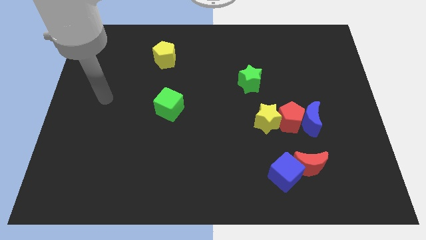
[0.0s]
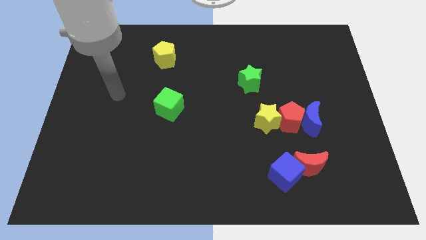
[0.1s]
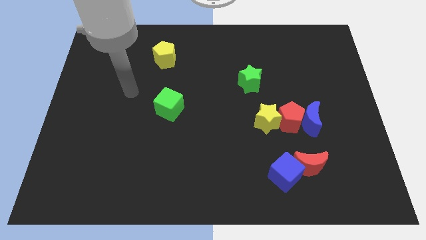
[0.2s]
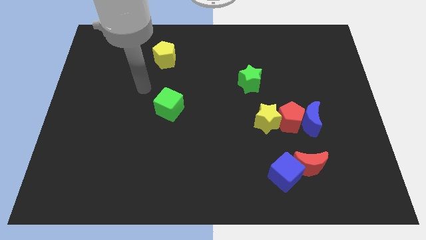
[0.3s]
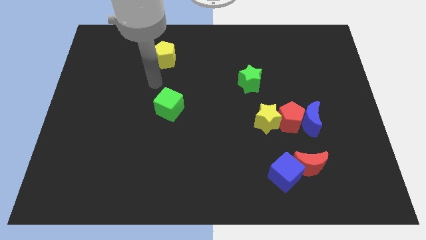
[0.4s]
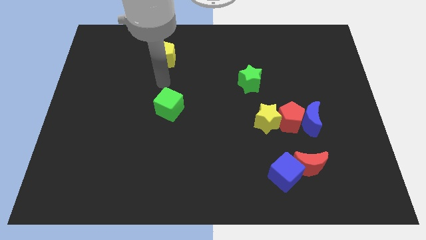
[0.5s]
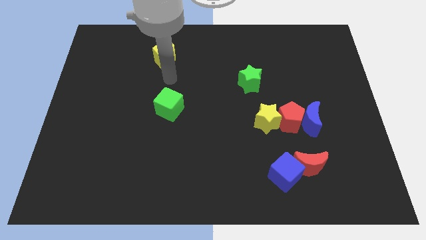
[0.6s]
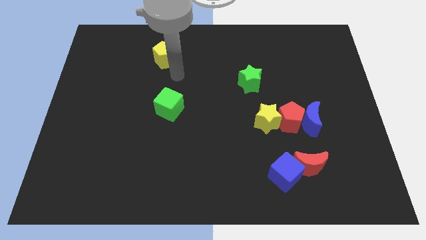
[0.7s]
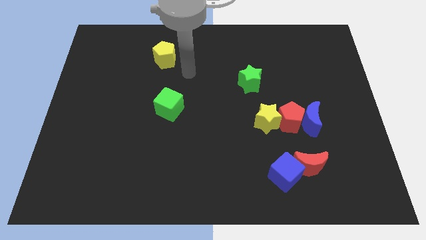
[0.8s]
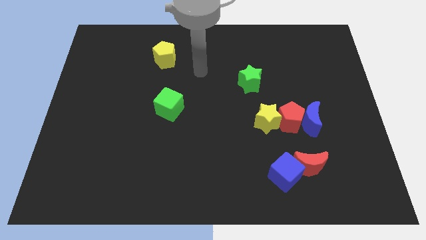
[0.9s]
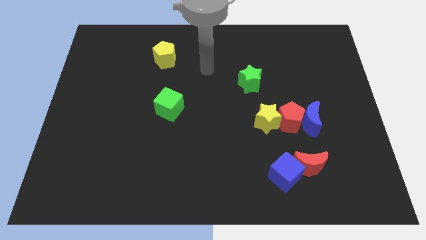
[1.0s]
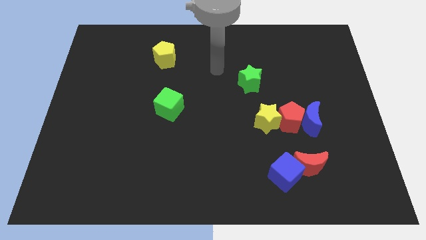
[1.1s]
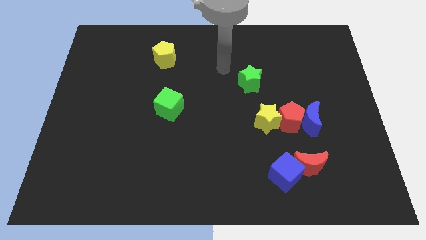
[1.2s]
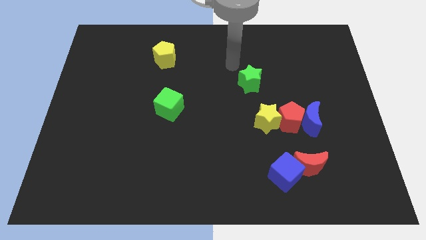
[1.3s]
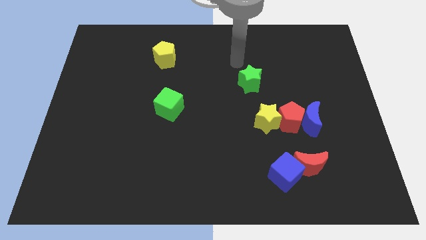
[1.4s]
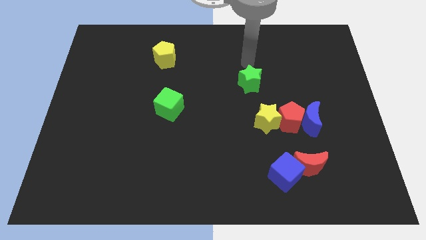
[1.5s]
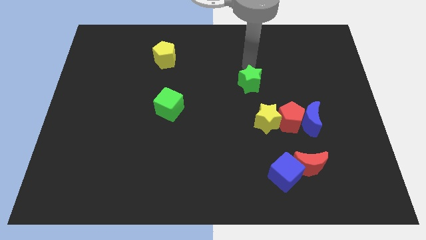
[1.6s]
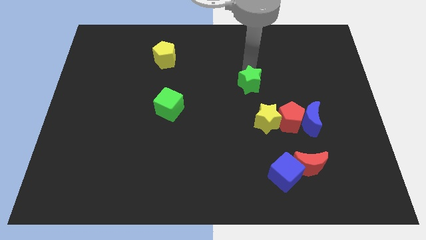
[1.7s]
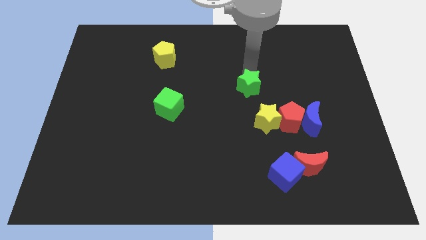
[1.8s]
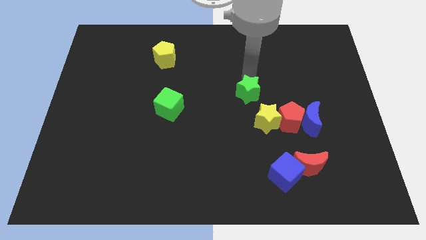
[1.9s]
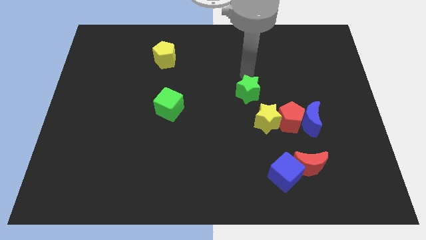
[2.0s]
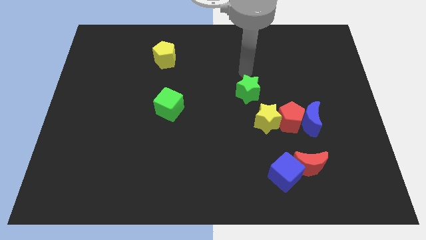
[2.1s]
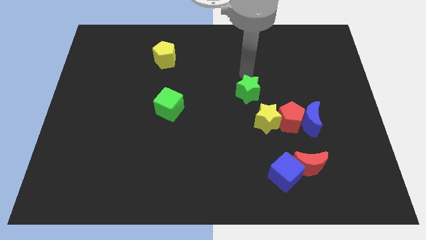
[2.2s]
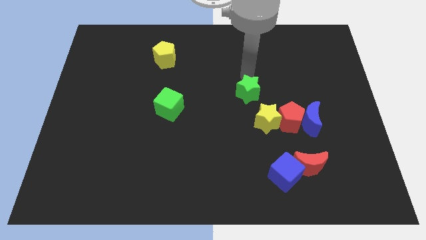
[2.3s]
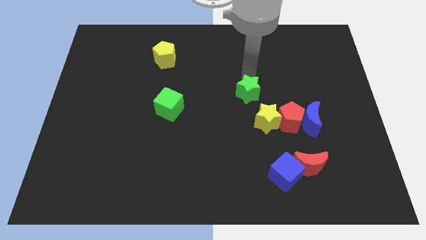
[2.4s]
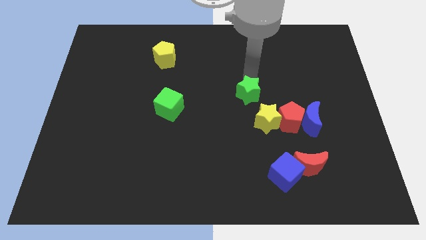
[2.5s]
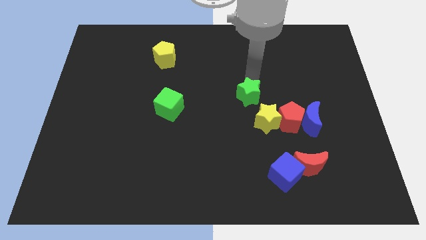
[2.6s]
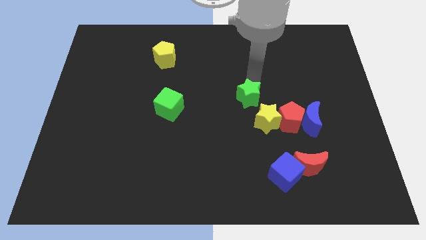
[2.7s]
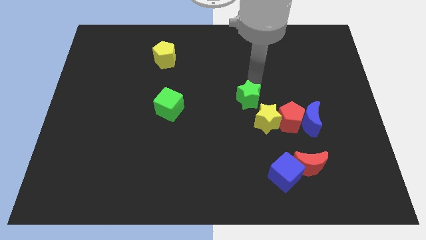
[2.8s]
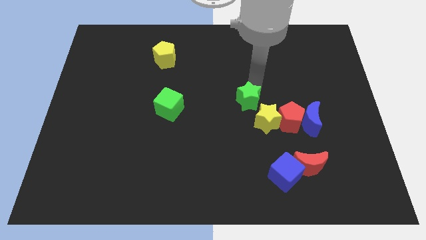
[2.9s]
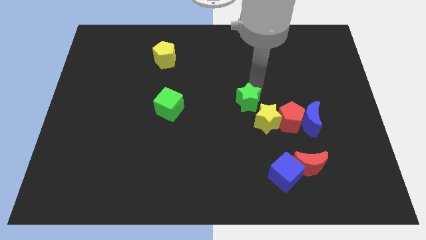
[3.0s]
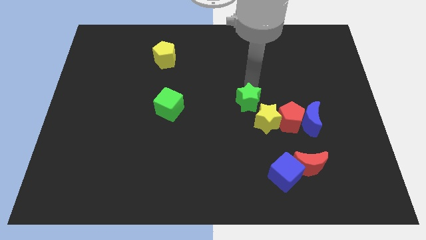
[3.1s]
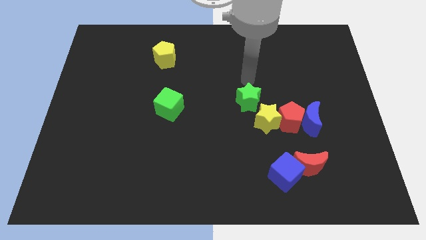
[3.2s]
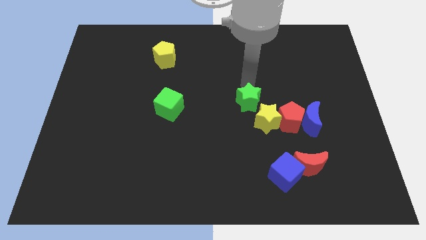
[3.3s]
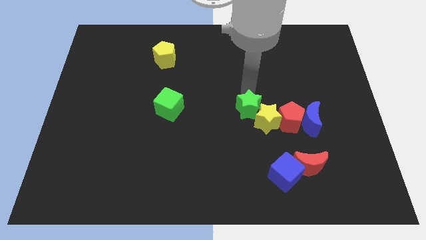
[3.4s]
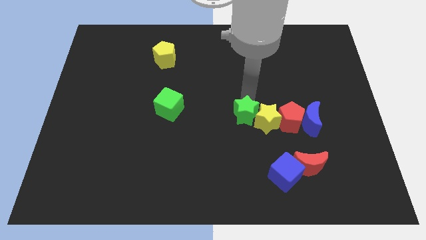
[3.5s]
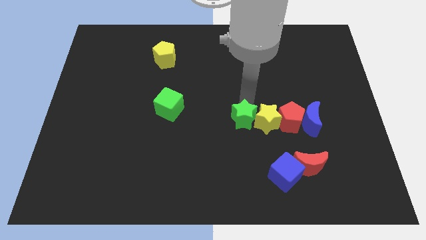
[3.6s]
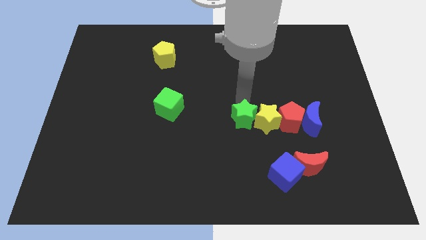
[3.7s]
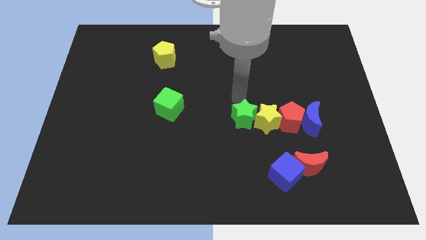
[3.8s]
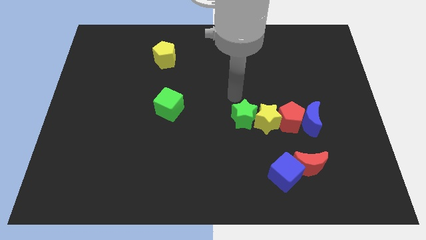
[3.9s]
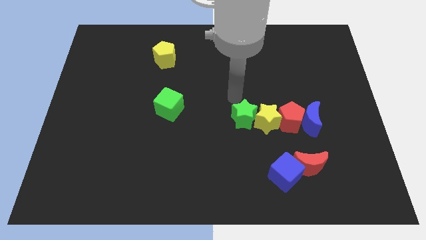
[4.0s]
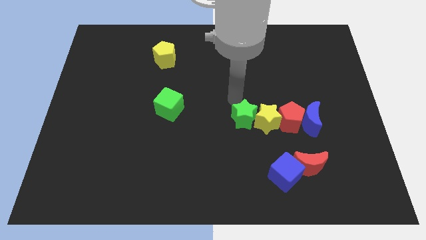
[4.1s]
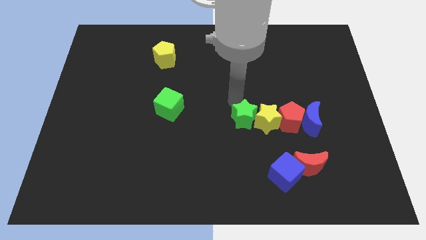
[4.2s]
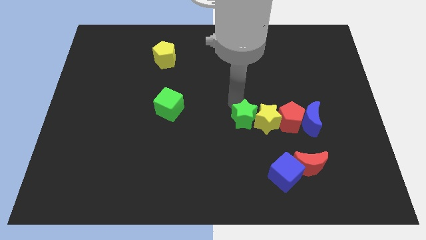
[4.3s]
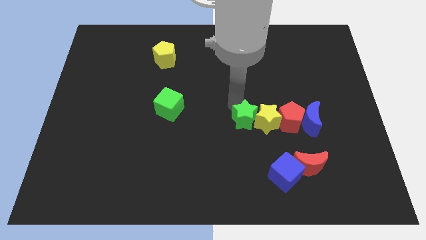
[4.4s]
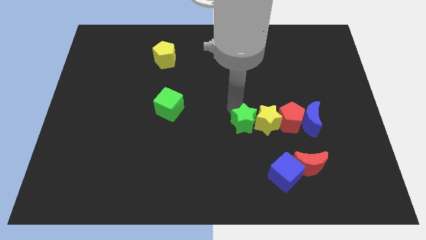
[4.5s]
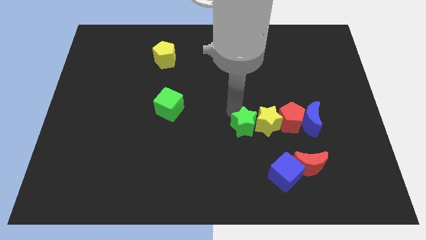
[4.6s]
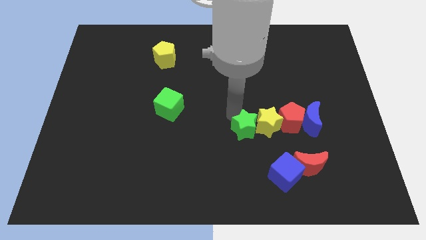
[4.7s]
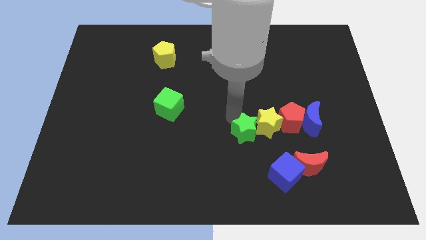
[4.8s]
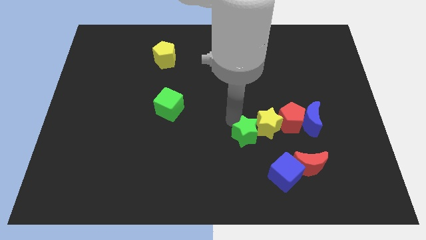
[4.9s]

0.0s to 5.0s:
slide the green star to the top left side of the blue cube

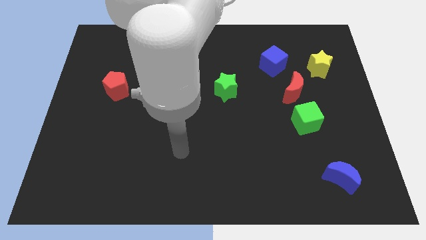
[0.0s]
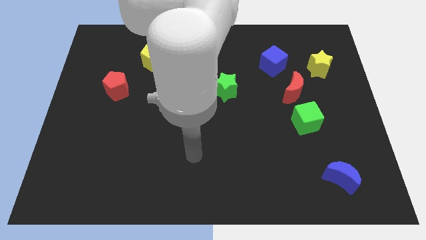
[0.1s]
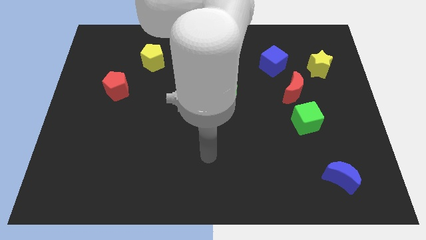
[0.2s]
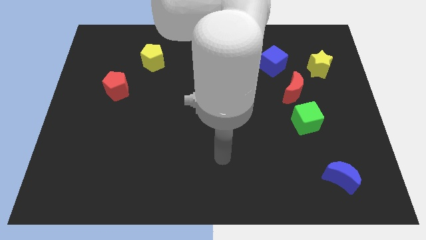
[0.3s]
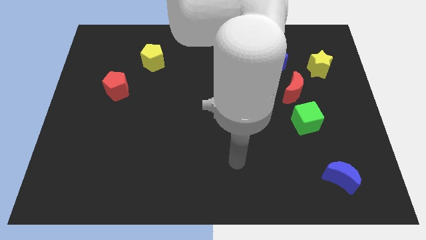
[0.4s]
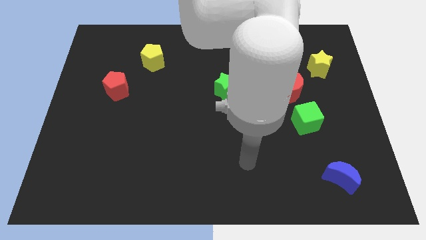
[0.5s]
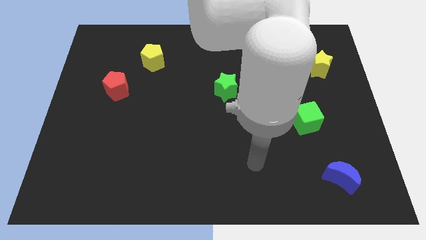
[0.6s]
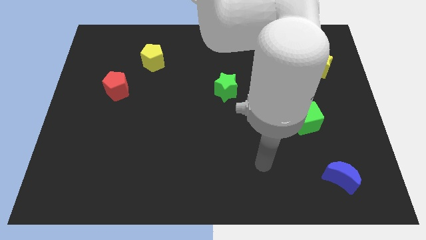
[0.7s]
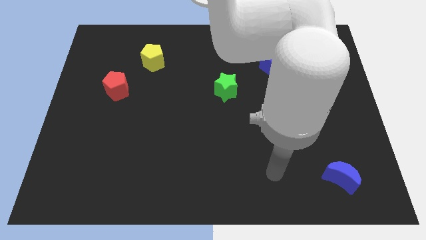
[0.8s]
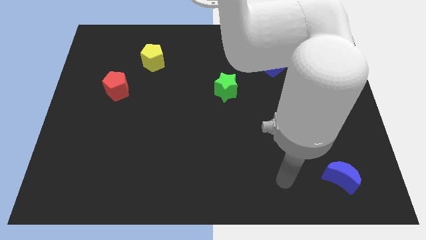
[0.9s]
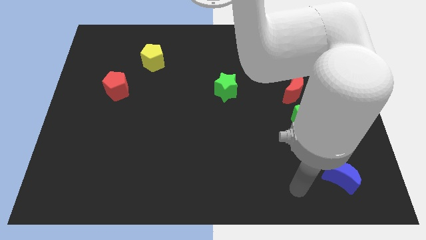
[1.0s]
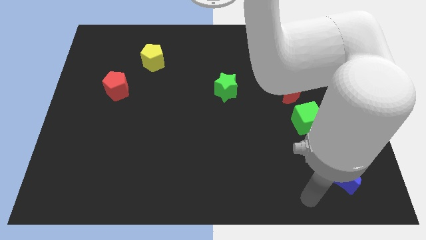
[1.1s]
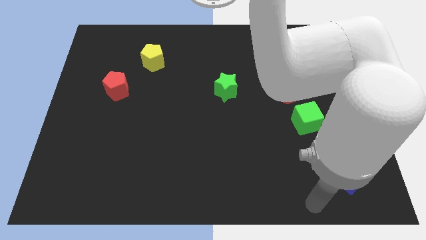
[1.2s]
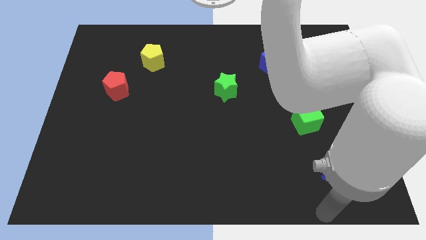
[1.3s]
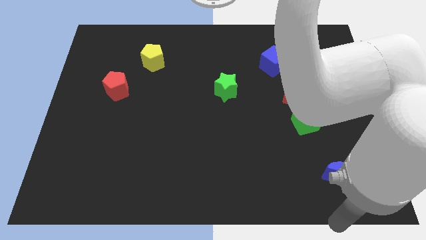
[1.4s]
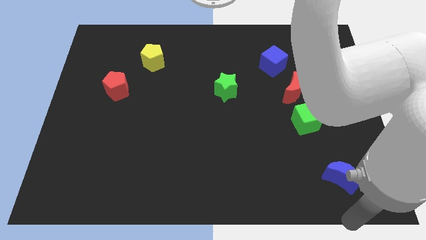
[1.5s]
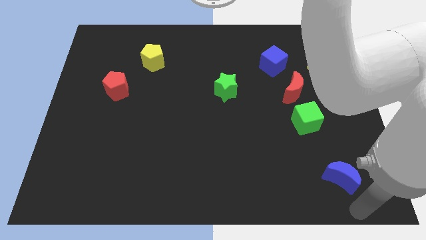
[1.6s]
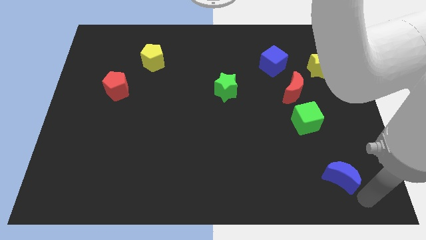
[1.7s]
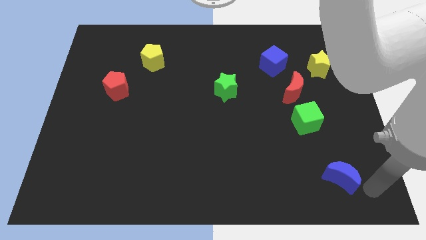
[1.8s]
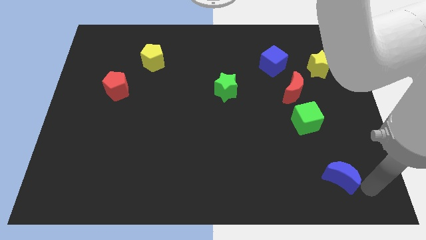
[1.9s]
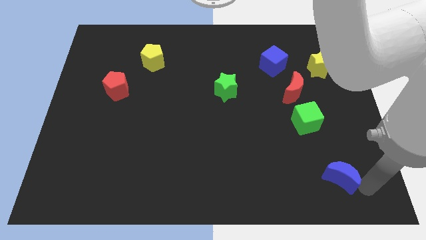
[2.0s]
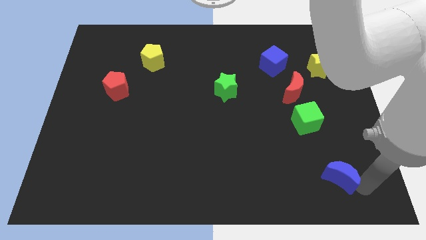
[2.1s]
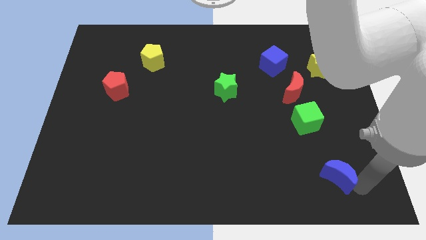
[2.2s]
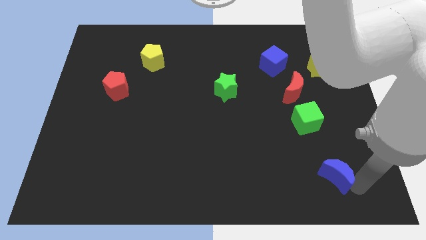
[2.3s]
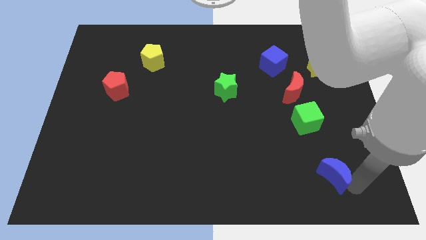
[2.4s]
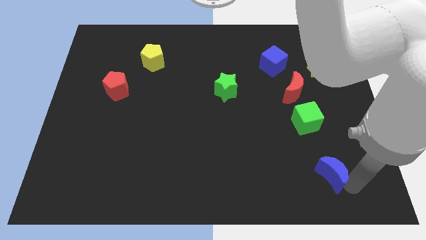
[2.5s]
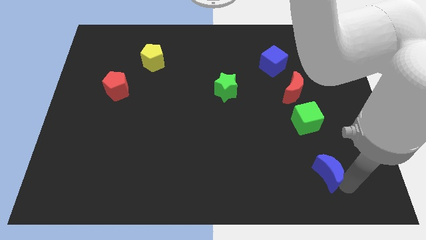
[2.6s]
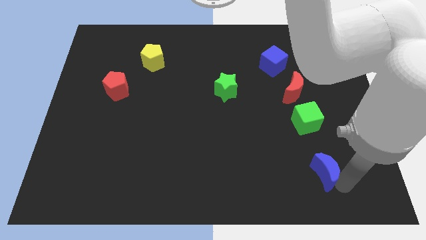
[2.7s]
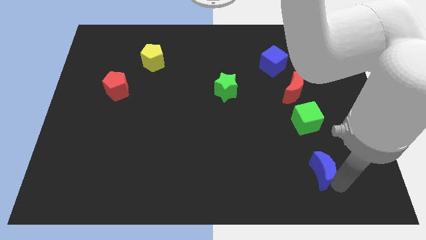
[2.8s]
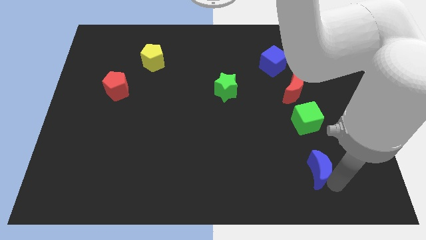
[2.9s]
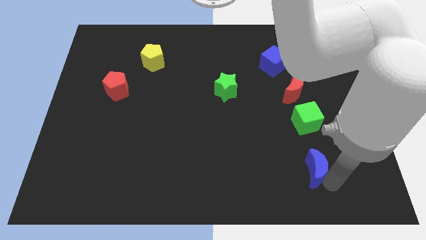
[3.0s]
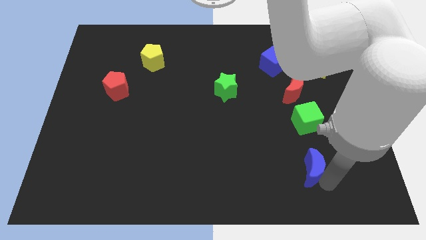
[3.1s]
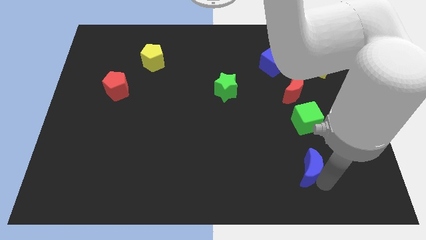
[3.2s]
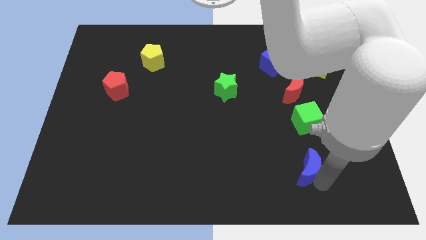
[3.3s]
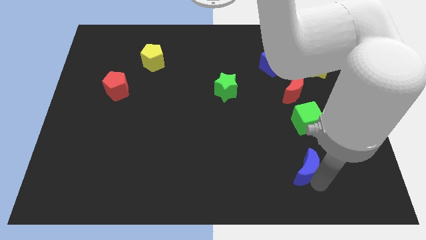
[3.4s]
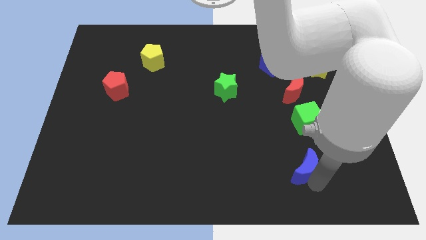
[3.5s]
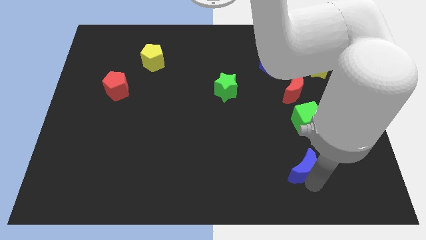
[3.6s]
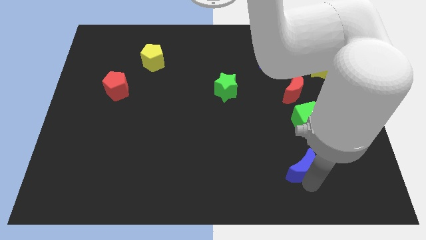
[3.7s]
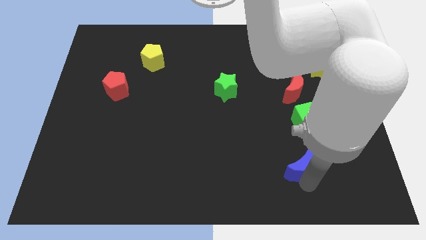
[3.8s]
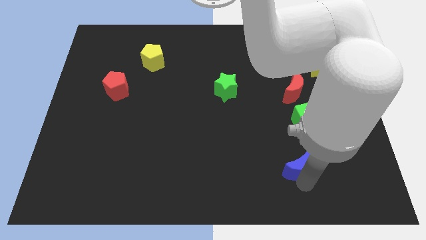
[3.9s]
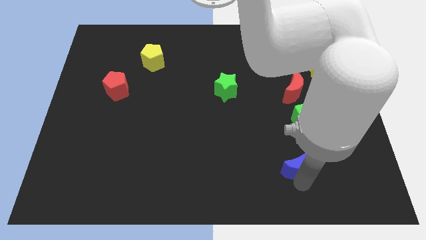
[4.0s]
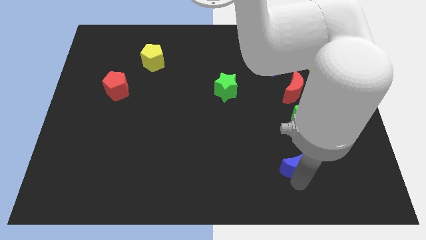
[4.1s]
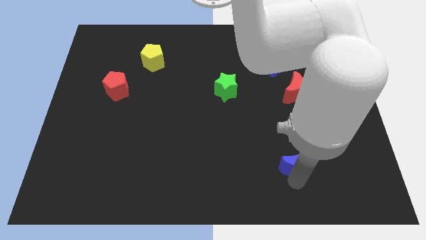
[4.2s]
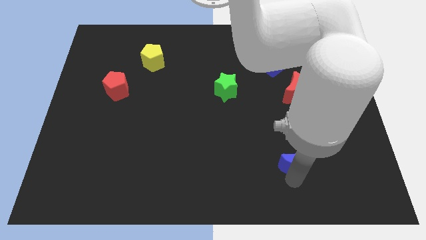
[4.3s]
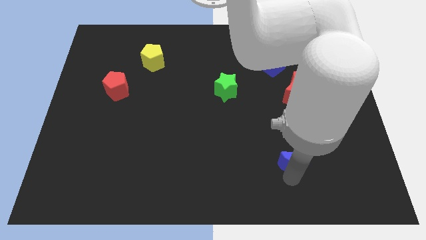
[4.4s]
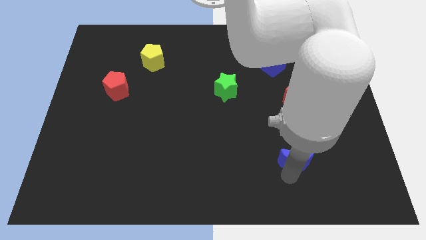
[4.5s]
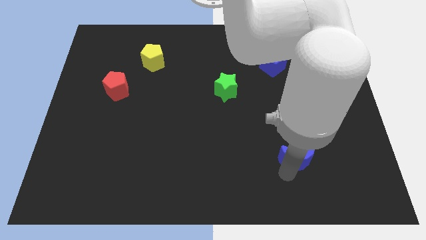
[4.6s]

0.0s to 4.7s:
push the blue moon to the bottom left of the green cube
